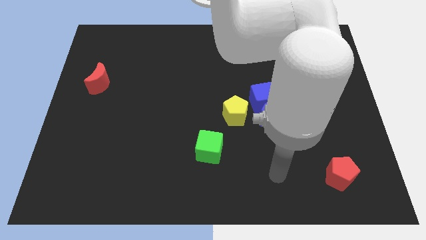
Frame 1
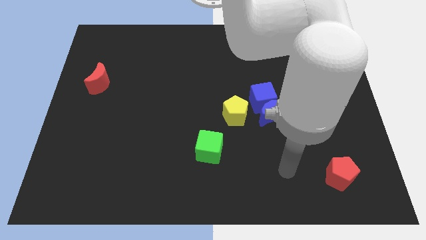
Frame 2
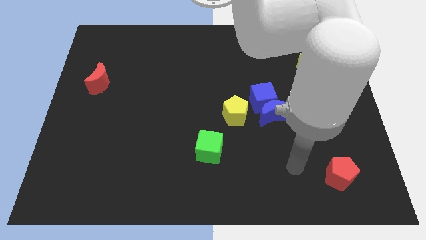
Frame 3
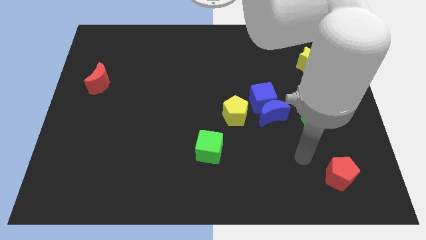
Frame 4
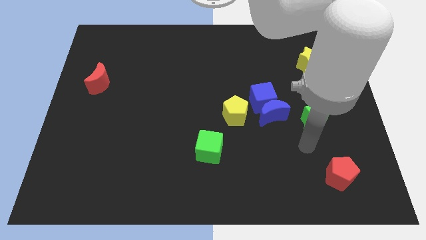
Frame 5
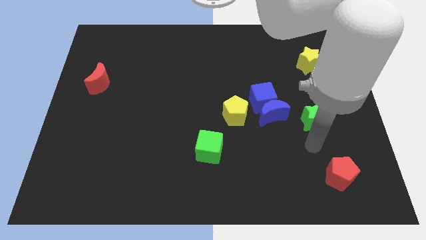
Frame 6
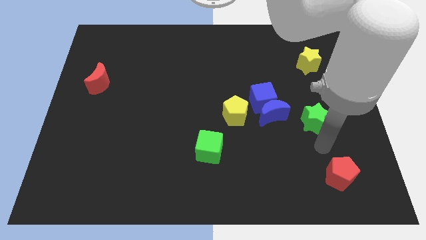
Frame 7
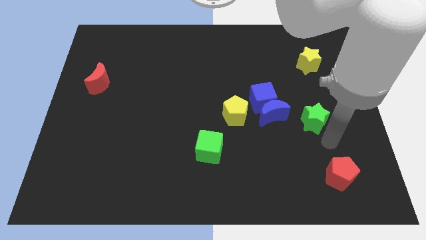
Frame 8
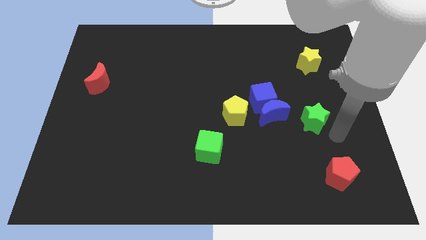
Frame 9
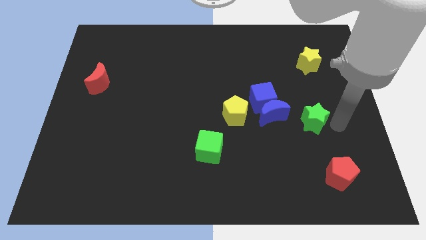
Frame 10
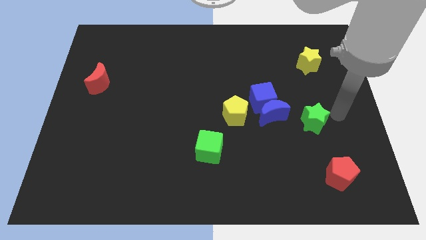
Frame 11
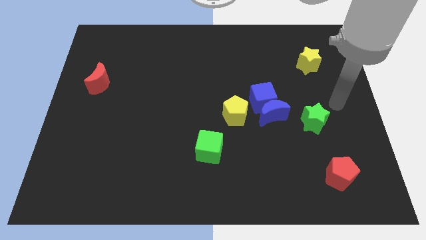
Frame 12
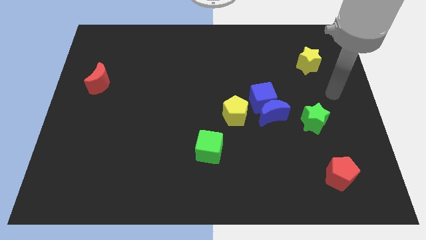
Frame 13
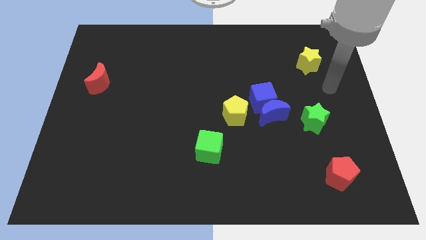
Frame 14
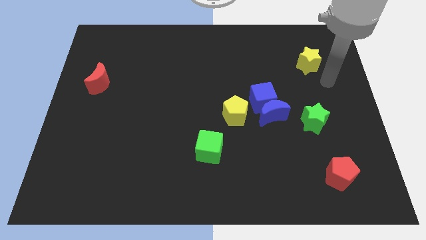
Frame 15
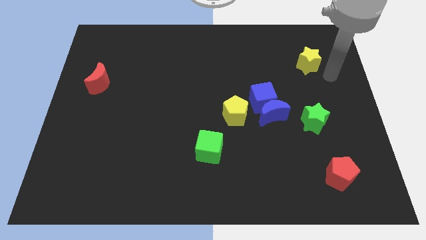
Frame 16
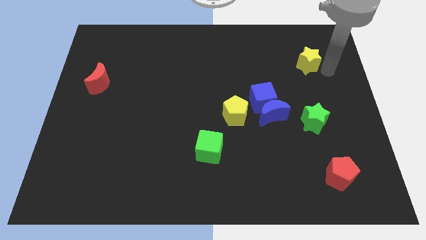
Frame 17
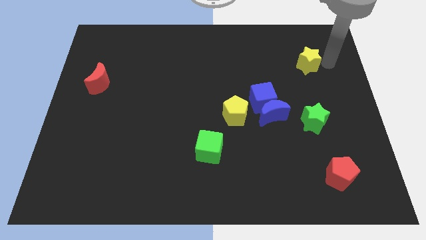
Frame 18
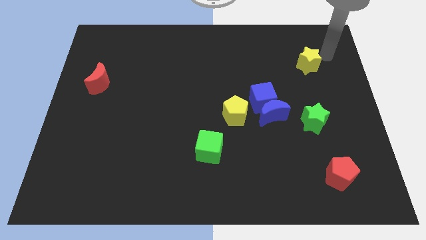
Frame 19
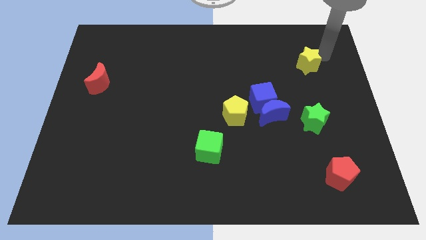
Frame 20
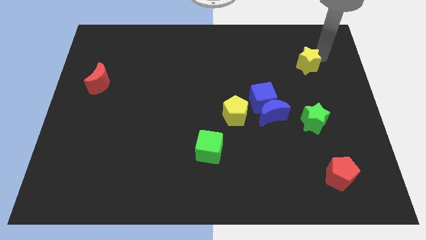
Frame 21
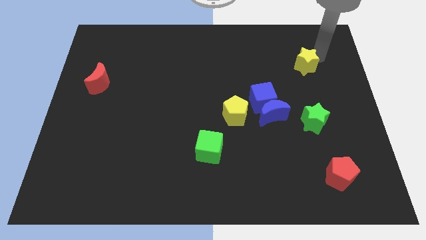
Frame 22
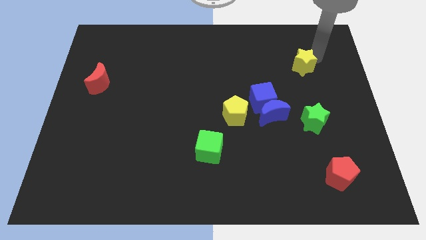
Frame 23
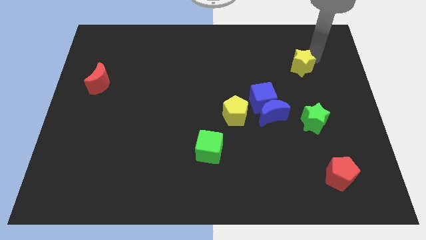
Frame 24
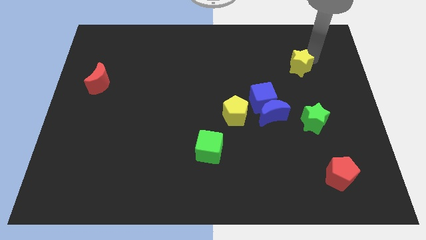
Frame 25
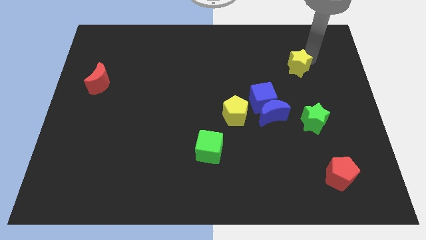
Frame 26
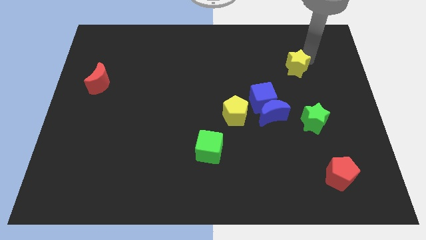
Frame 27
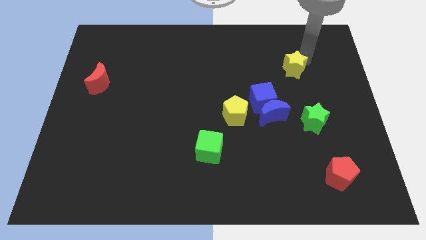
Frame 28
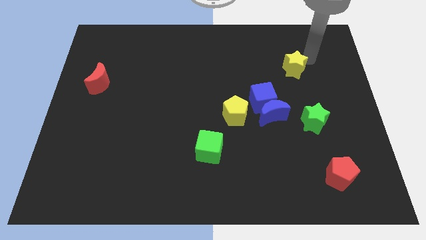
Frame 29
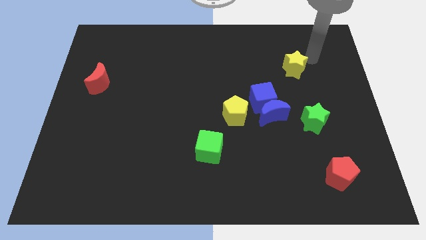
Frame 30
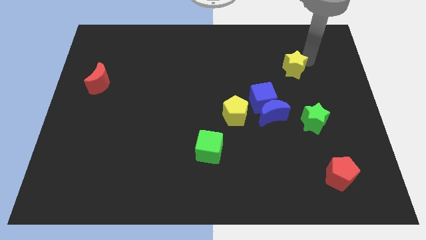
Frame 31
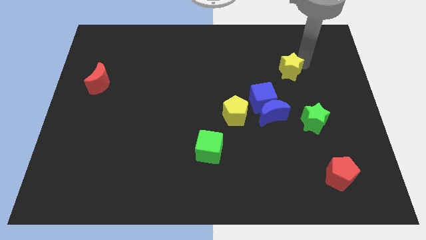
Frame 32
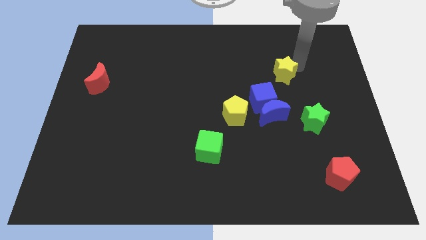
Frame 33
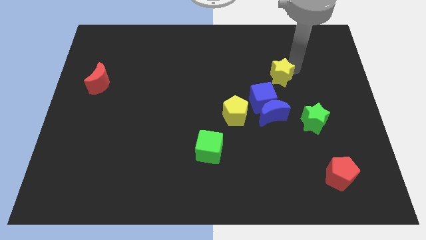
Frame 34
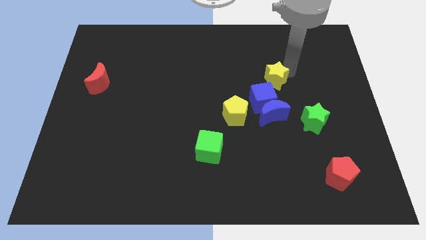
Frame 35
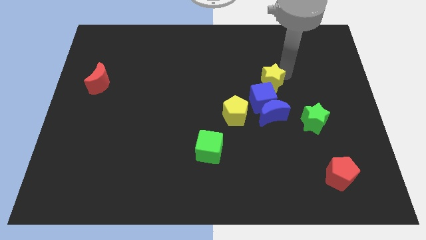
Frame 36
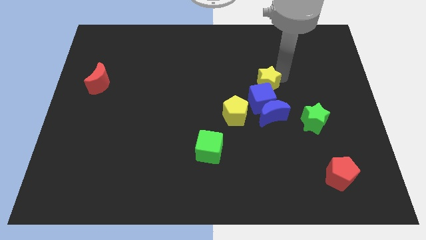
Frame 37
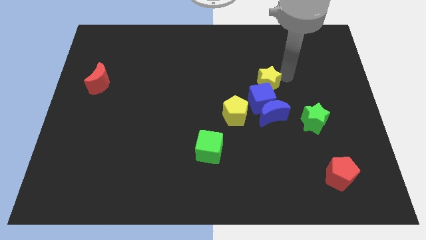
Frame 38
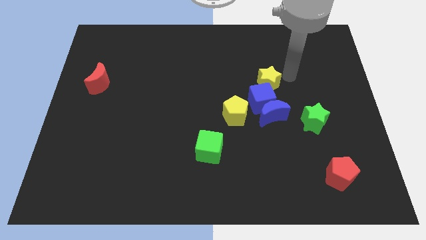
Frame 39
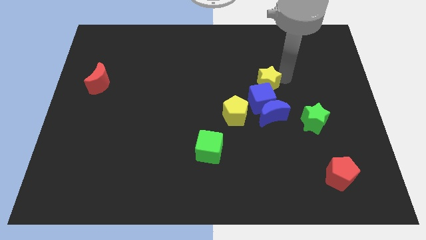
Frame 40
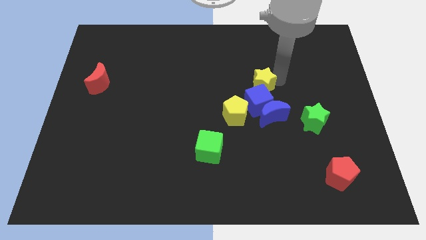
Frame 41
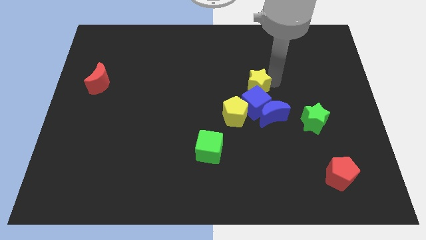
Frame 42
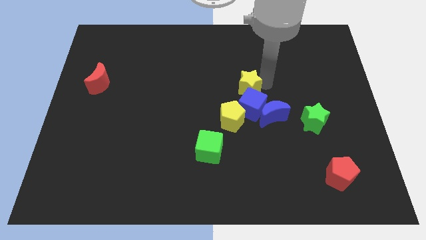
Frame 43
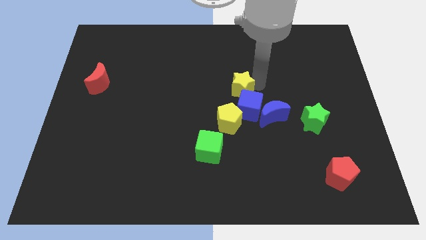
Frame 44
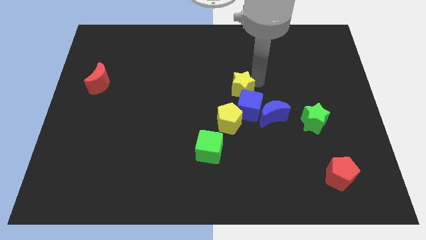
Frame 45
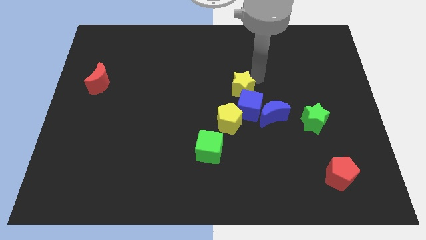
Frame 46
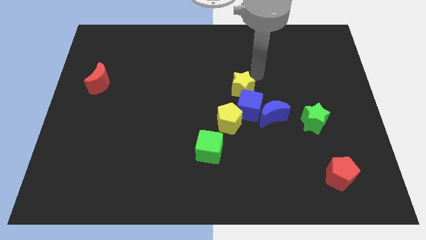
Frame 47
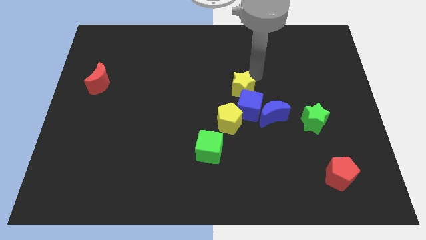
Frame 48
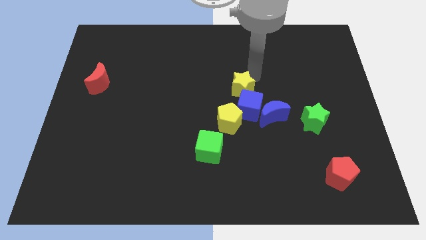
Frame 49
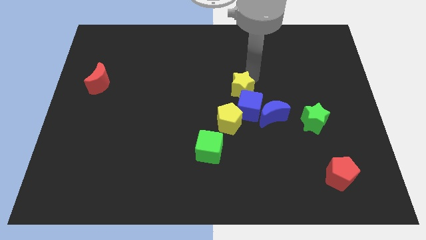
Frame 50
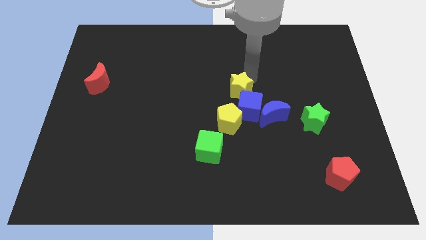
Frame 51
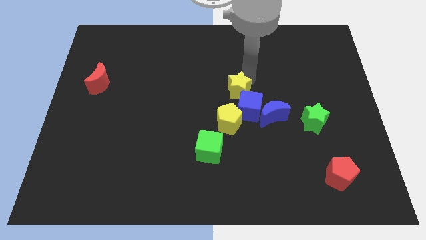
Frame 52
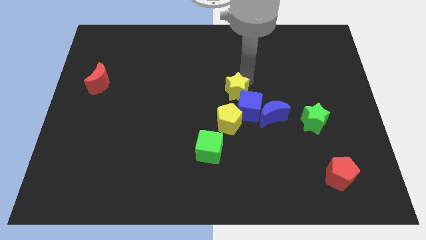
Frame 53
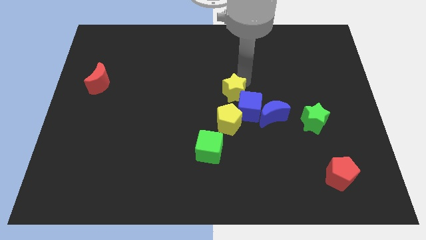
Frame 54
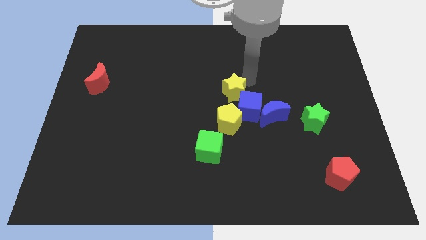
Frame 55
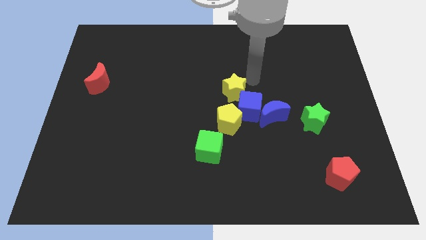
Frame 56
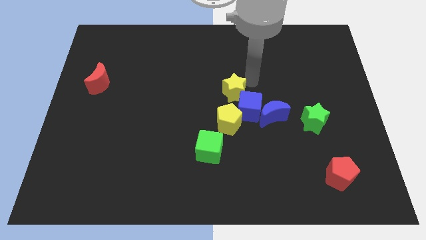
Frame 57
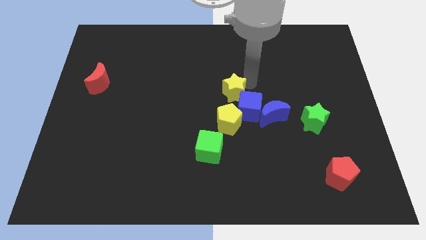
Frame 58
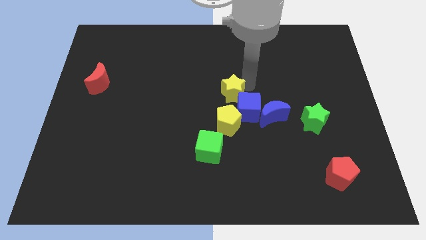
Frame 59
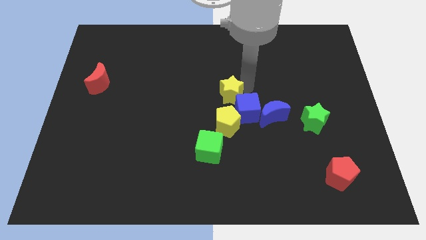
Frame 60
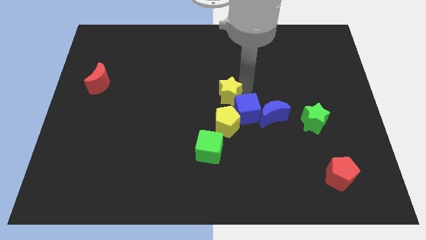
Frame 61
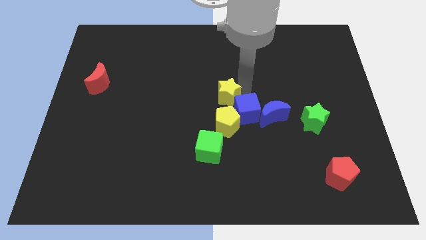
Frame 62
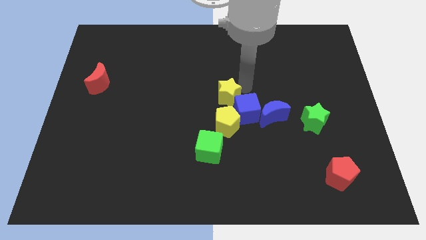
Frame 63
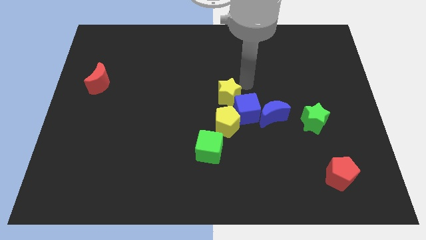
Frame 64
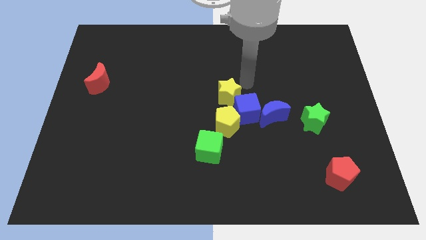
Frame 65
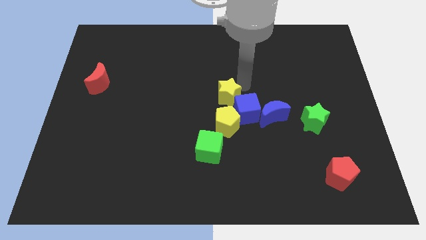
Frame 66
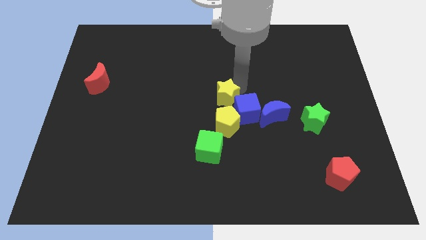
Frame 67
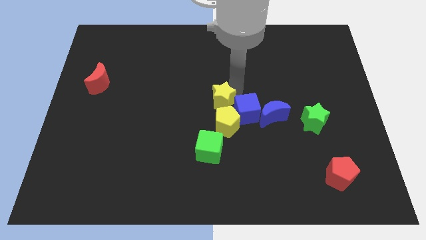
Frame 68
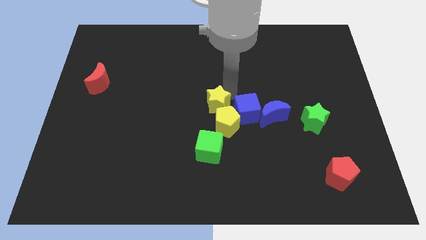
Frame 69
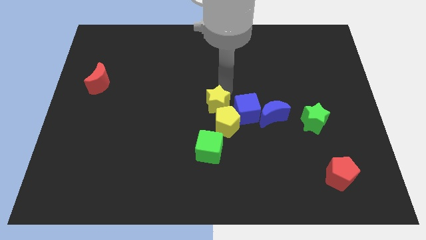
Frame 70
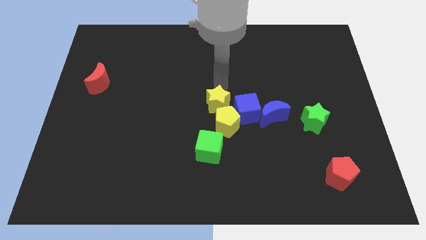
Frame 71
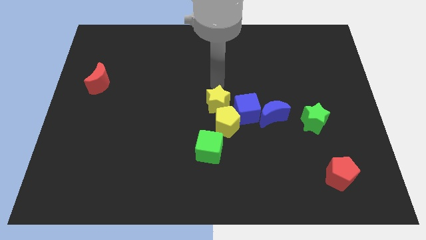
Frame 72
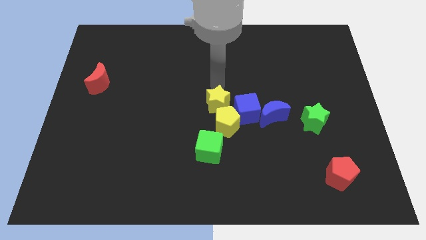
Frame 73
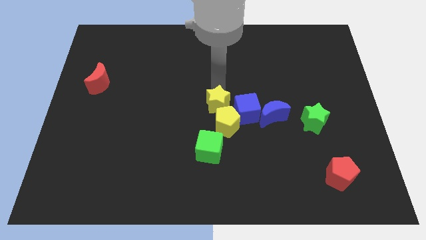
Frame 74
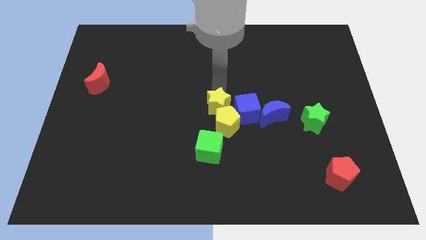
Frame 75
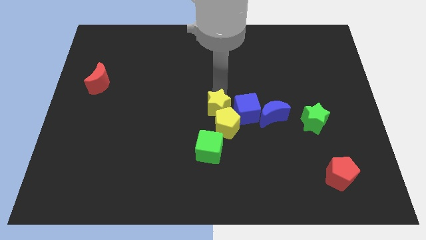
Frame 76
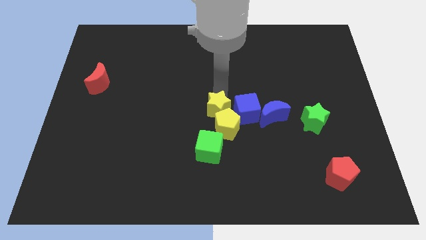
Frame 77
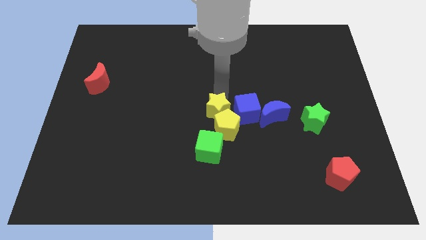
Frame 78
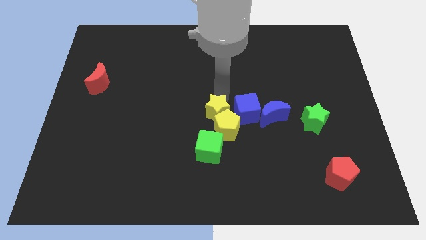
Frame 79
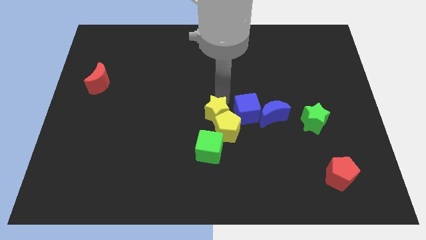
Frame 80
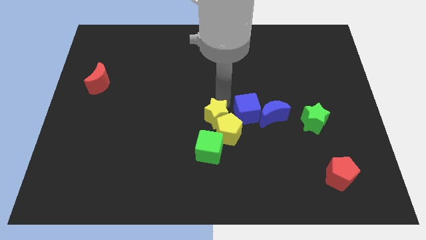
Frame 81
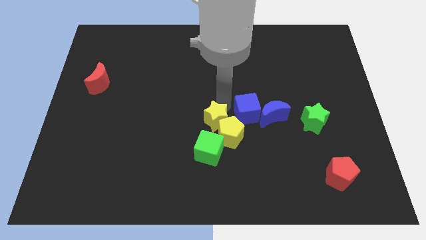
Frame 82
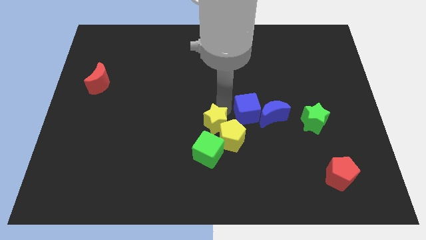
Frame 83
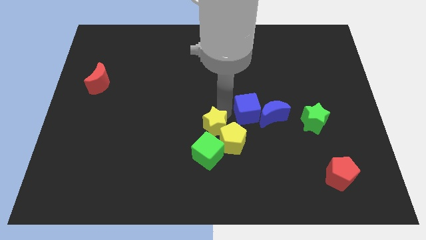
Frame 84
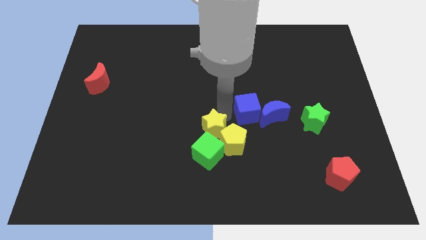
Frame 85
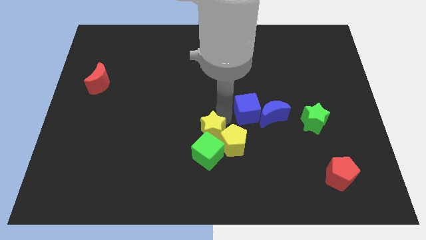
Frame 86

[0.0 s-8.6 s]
move the yellow star next to the green cube
